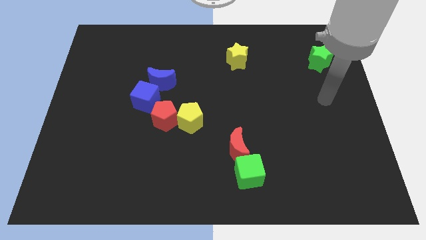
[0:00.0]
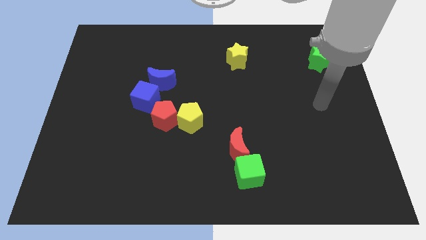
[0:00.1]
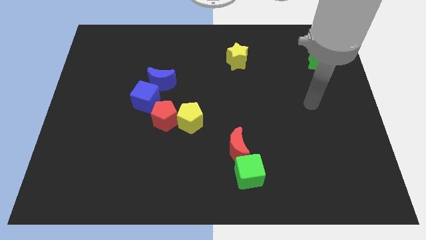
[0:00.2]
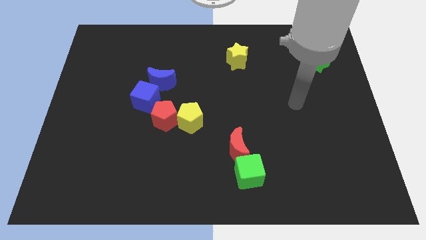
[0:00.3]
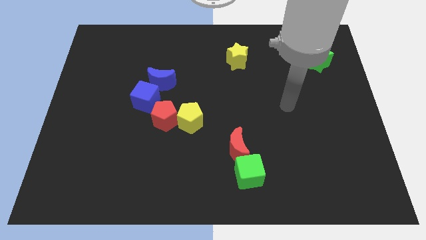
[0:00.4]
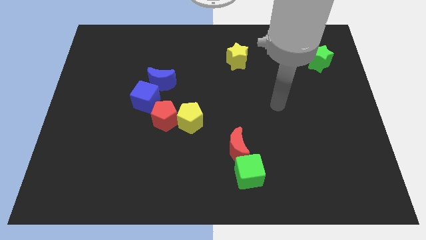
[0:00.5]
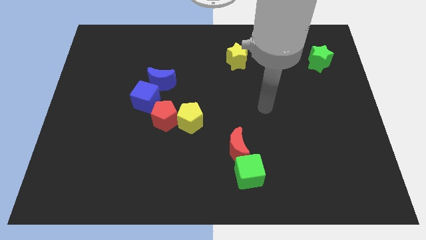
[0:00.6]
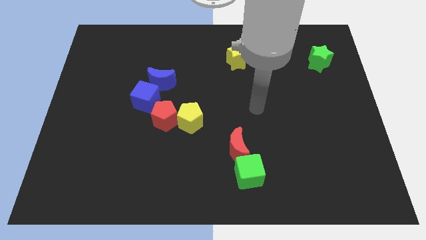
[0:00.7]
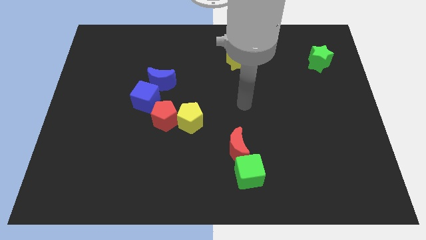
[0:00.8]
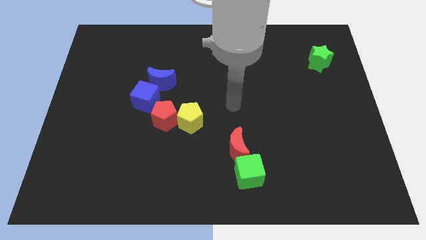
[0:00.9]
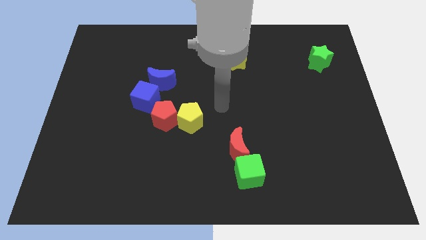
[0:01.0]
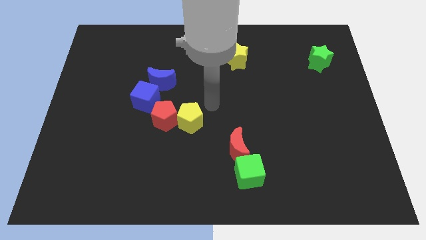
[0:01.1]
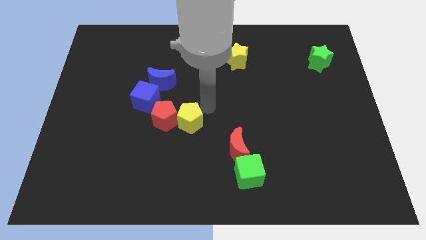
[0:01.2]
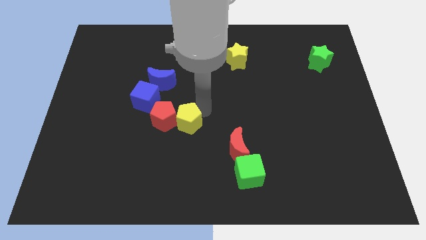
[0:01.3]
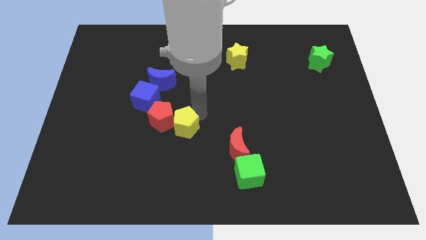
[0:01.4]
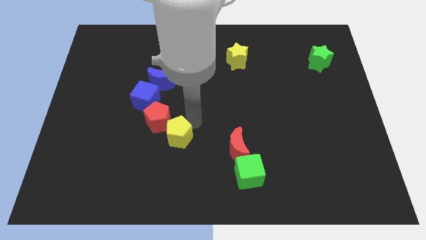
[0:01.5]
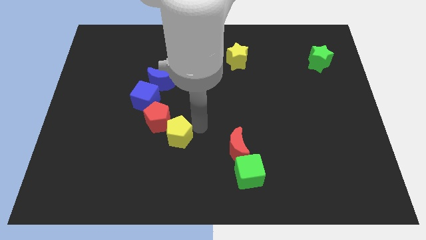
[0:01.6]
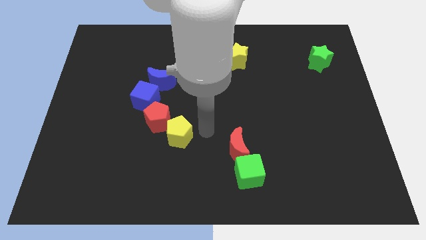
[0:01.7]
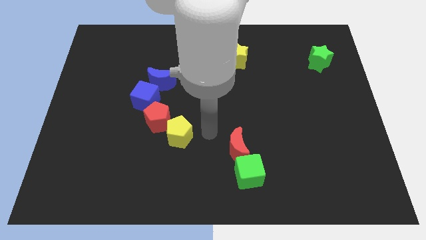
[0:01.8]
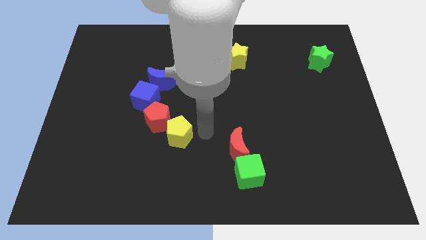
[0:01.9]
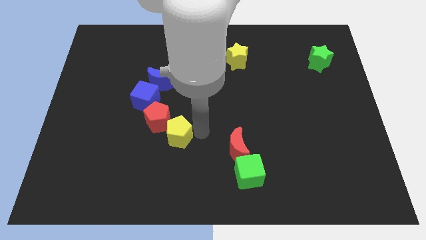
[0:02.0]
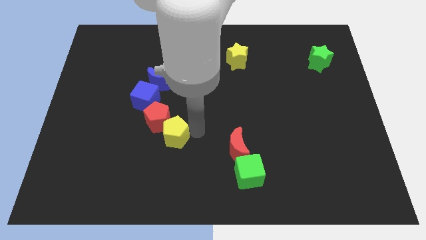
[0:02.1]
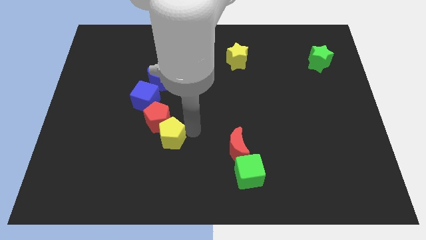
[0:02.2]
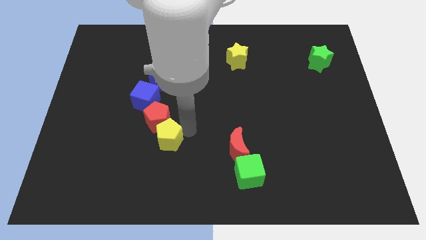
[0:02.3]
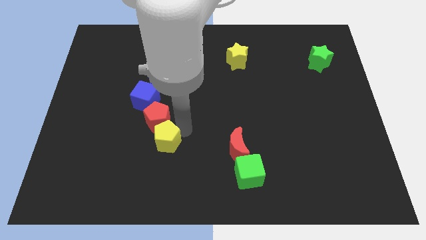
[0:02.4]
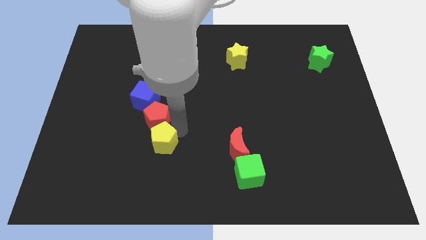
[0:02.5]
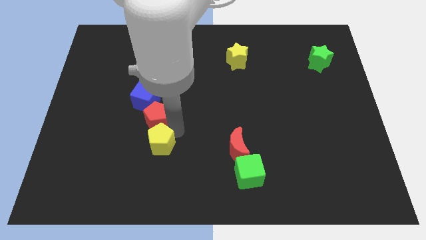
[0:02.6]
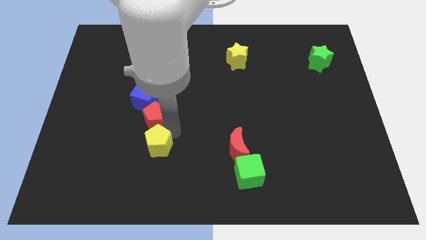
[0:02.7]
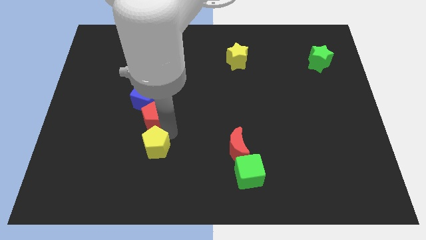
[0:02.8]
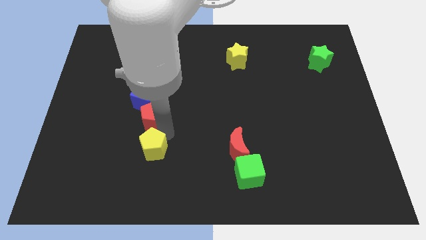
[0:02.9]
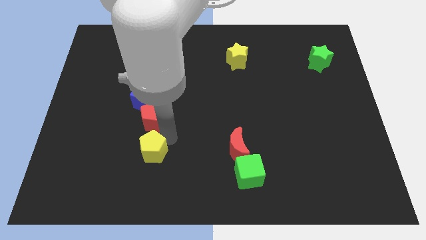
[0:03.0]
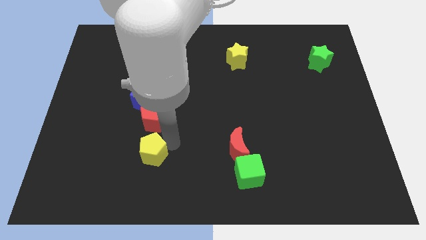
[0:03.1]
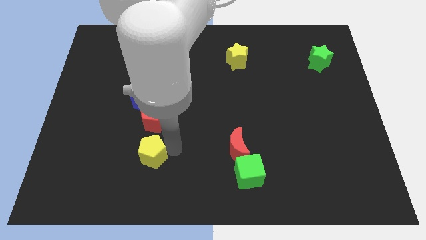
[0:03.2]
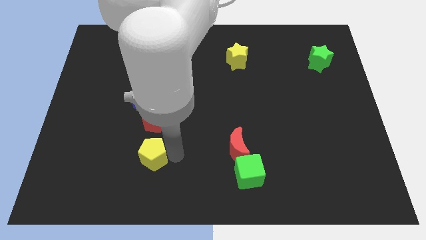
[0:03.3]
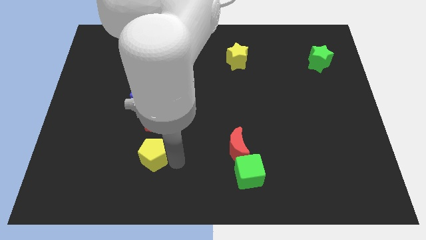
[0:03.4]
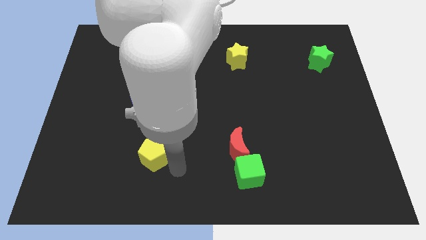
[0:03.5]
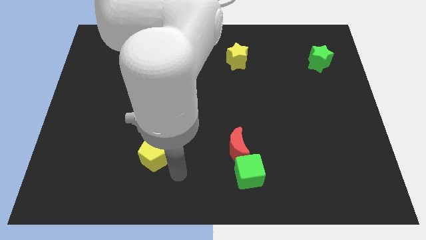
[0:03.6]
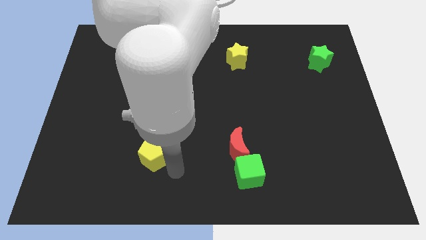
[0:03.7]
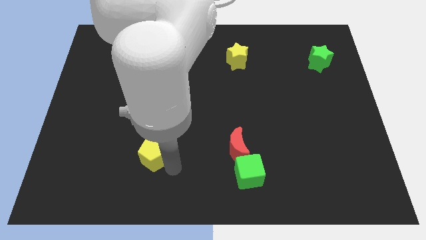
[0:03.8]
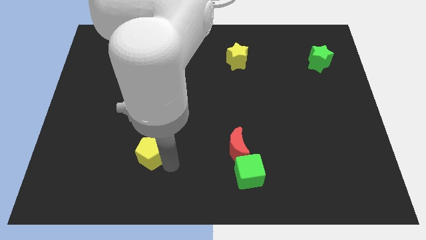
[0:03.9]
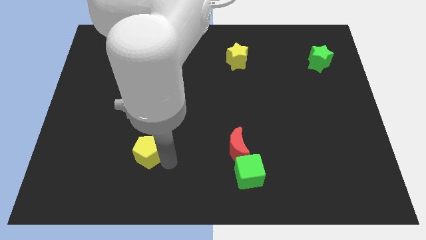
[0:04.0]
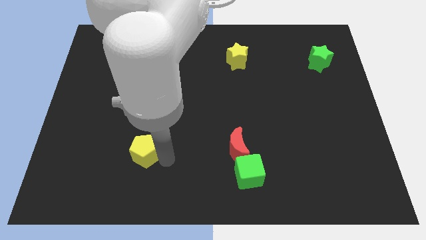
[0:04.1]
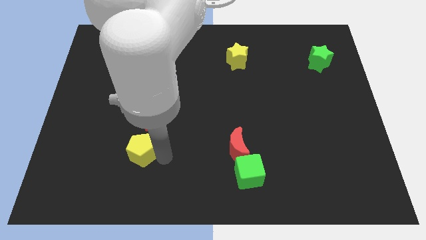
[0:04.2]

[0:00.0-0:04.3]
put the yellow pentagon to the bottom left of the red pentagon

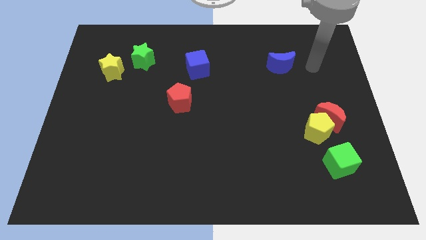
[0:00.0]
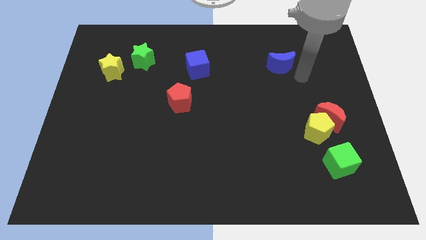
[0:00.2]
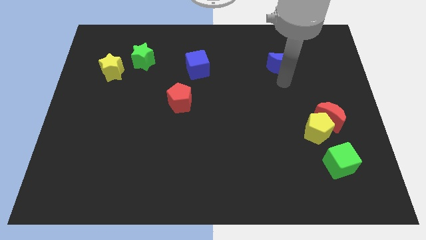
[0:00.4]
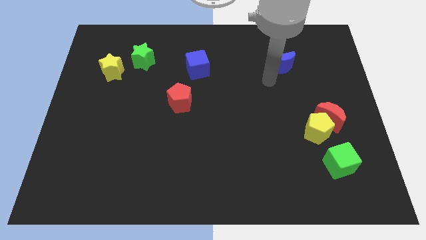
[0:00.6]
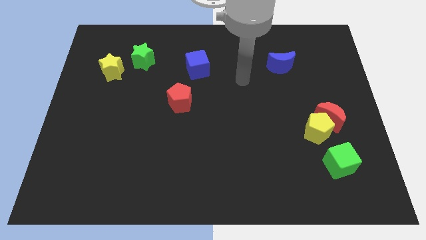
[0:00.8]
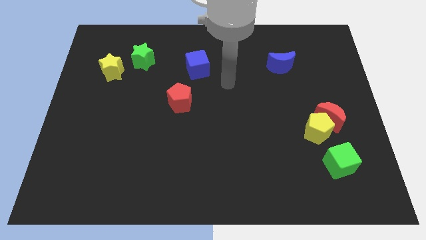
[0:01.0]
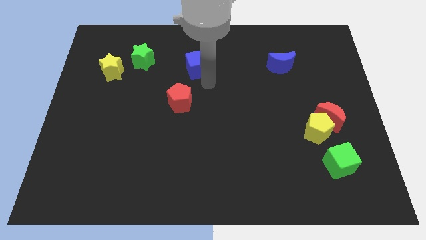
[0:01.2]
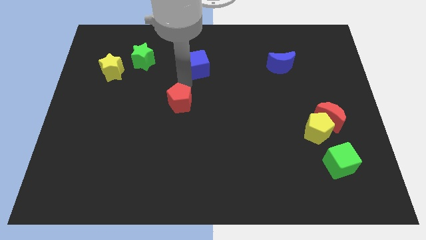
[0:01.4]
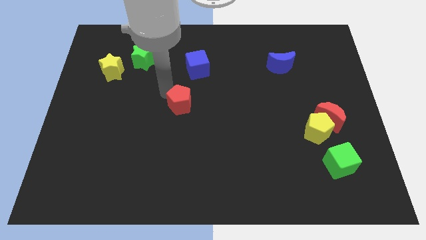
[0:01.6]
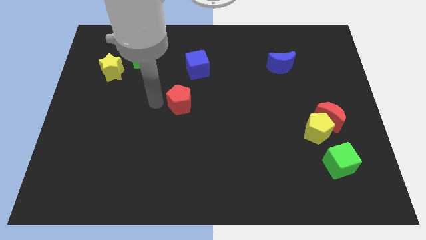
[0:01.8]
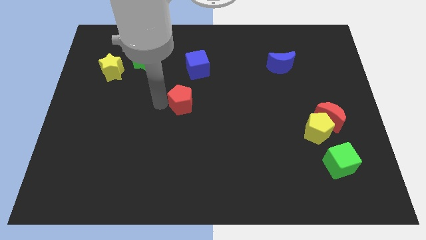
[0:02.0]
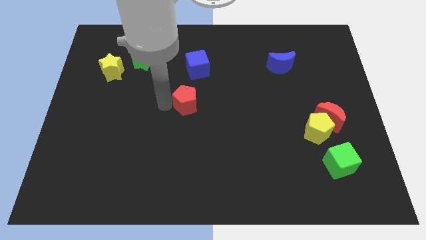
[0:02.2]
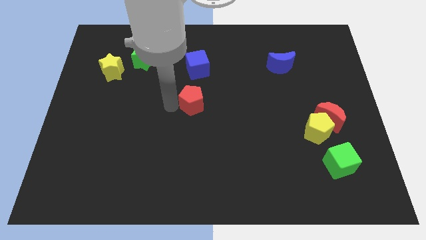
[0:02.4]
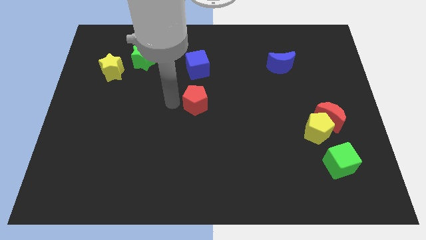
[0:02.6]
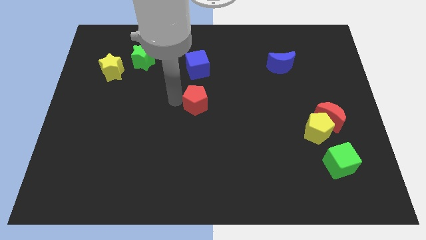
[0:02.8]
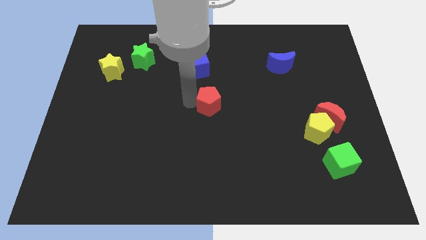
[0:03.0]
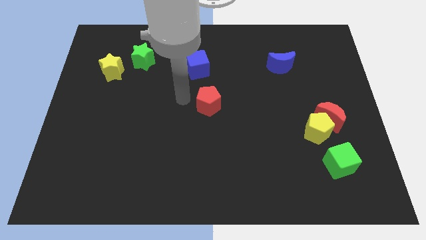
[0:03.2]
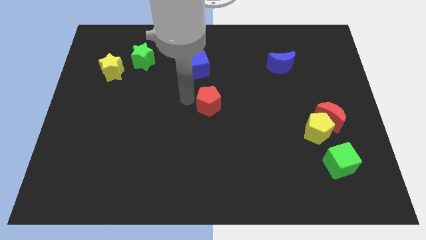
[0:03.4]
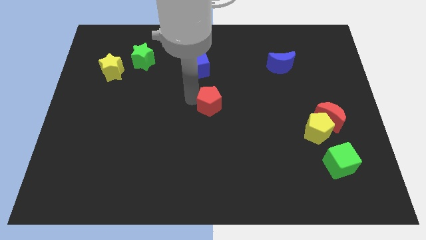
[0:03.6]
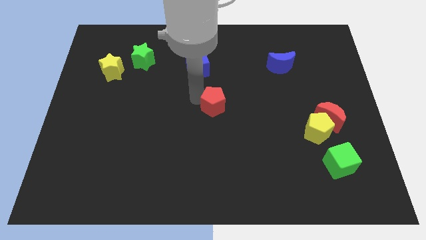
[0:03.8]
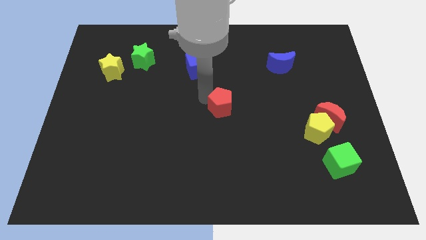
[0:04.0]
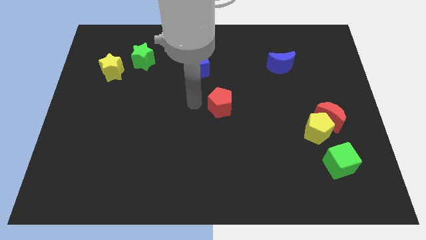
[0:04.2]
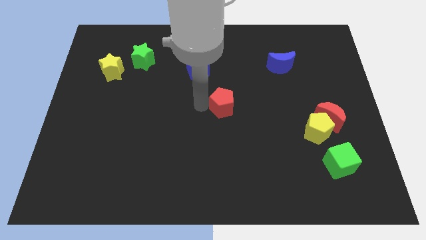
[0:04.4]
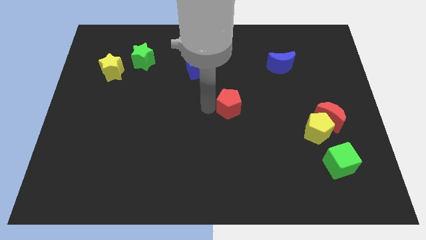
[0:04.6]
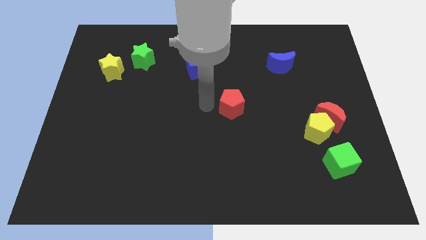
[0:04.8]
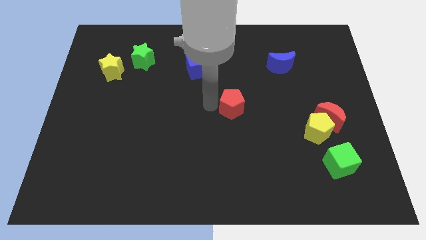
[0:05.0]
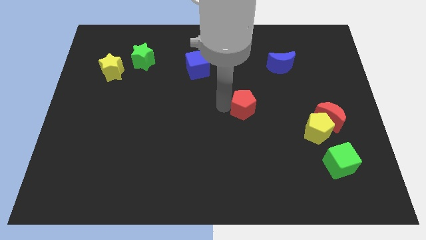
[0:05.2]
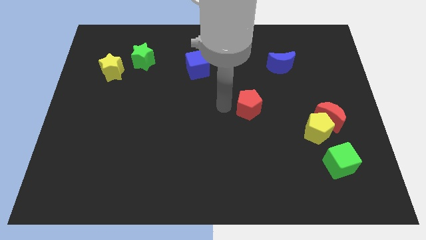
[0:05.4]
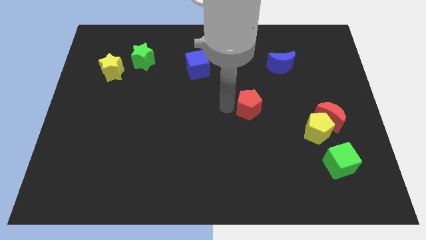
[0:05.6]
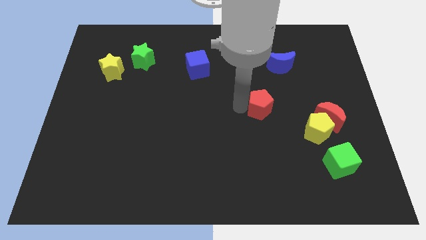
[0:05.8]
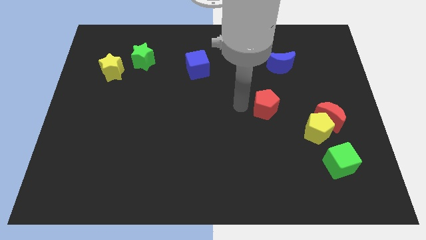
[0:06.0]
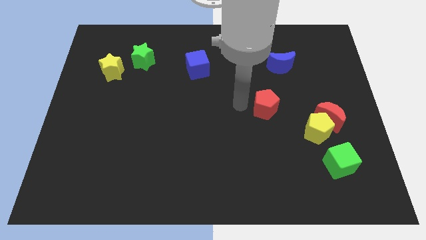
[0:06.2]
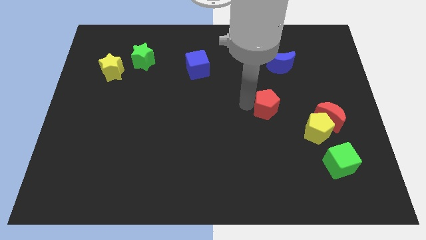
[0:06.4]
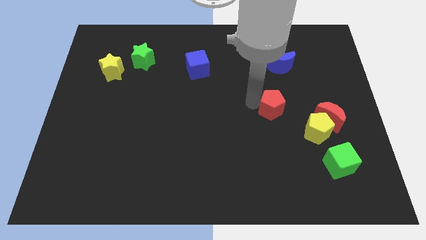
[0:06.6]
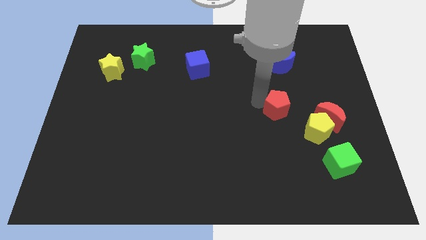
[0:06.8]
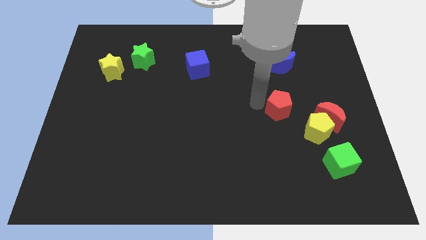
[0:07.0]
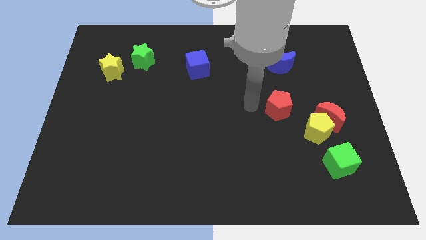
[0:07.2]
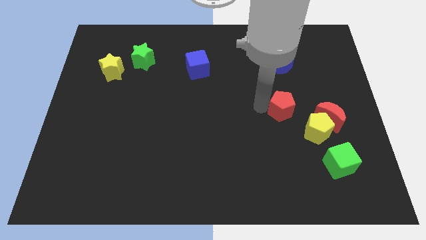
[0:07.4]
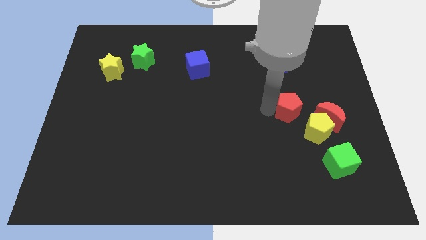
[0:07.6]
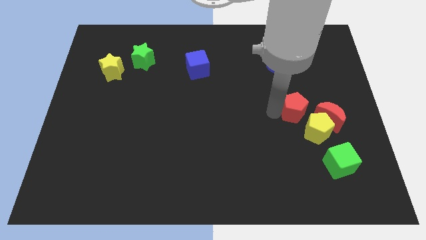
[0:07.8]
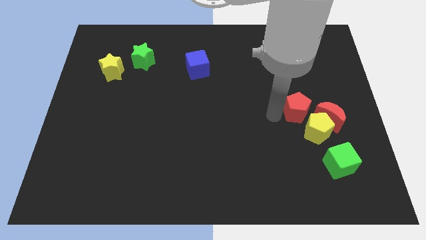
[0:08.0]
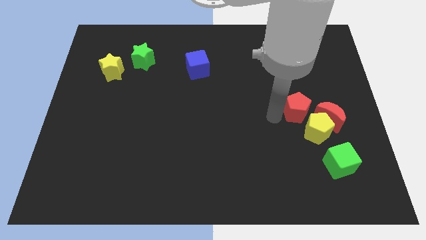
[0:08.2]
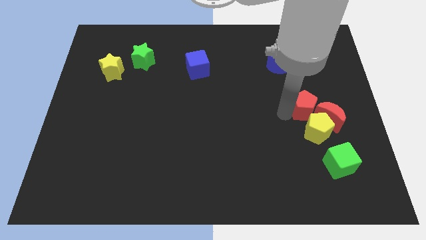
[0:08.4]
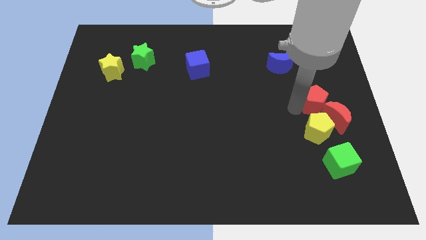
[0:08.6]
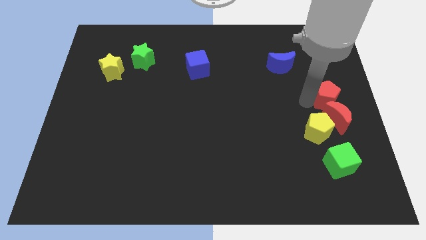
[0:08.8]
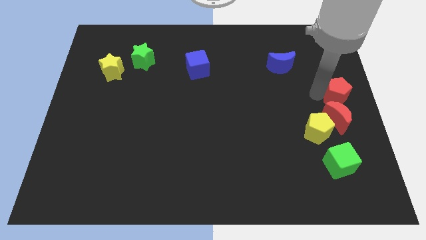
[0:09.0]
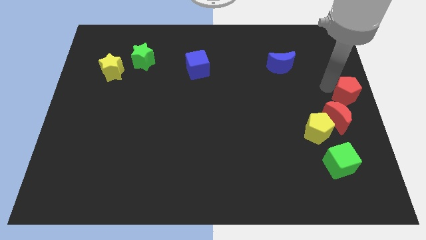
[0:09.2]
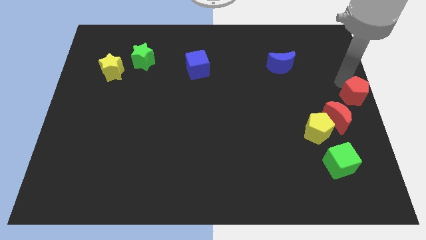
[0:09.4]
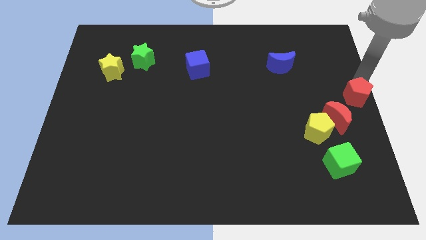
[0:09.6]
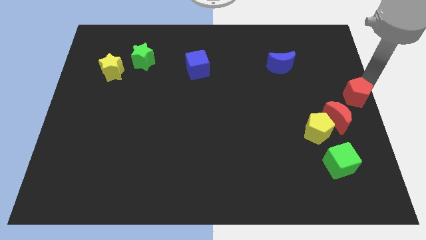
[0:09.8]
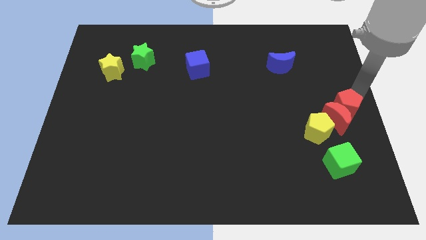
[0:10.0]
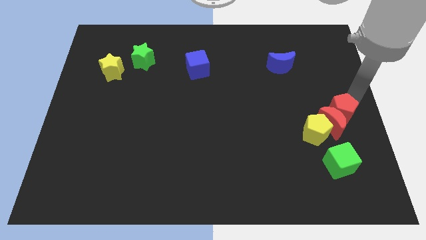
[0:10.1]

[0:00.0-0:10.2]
slide the red pentagon to the top of the green cube
